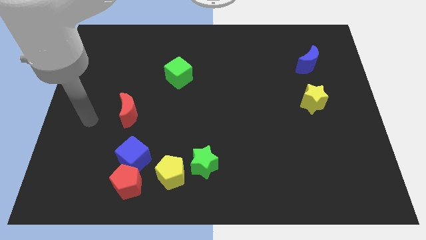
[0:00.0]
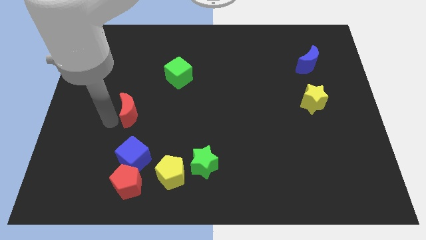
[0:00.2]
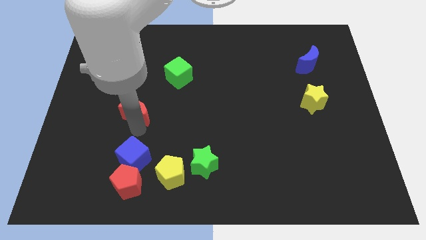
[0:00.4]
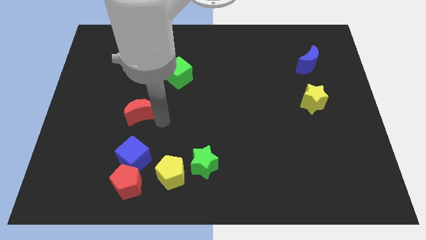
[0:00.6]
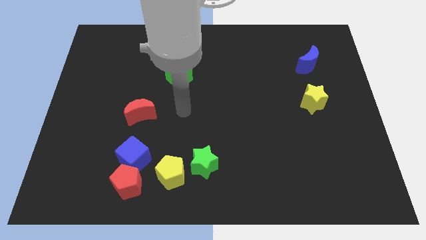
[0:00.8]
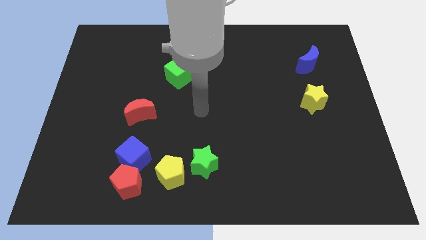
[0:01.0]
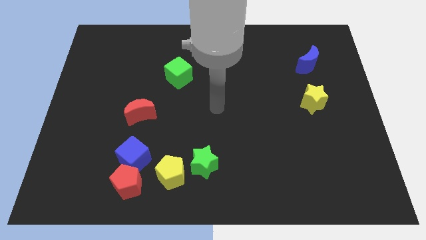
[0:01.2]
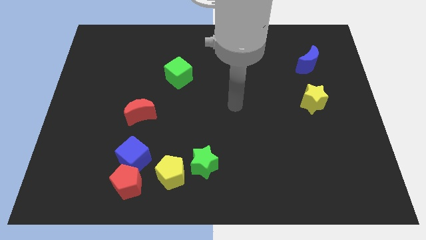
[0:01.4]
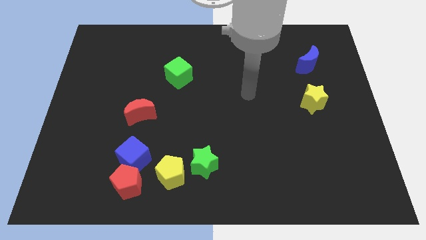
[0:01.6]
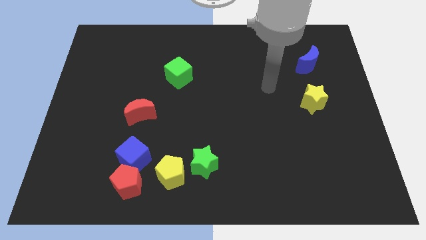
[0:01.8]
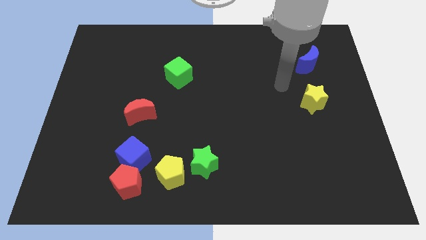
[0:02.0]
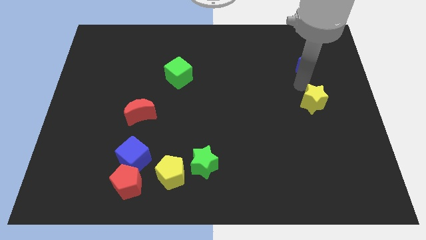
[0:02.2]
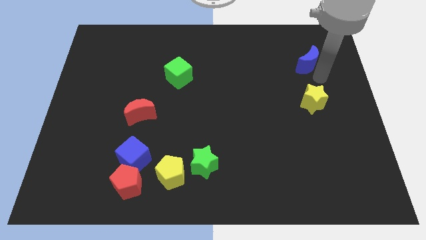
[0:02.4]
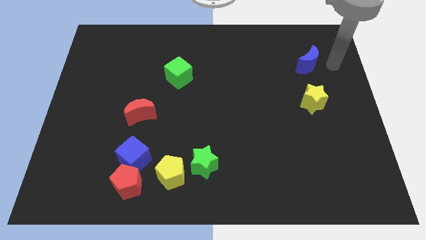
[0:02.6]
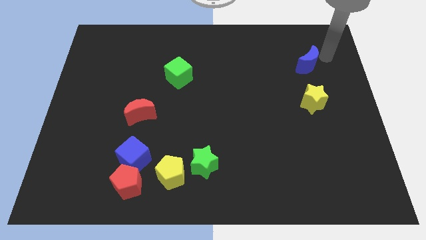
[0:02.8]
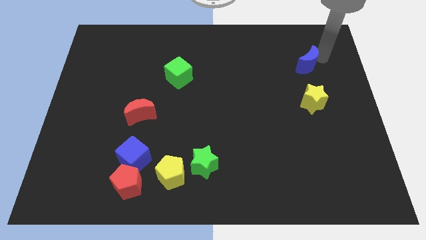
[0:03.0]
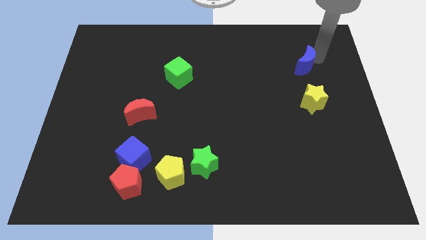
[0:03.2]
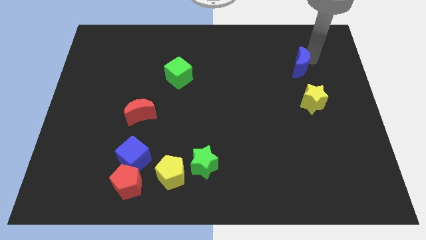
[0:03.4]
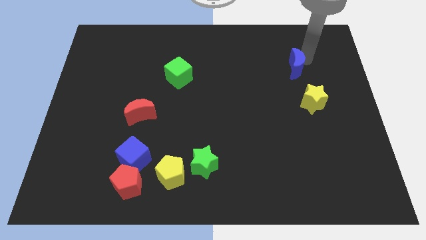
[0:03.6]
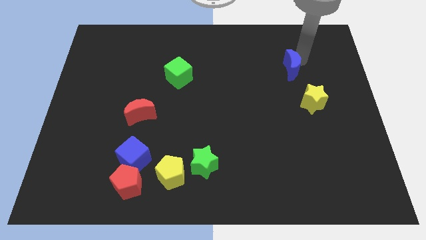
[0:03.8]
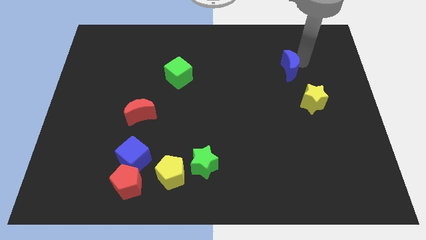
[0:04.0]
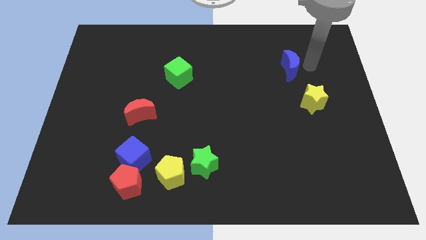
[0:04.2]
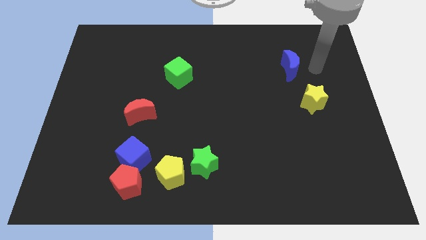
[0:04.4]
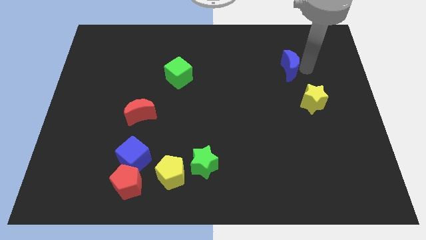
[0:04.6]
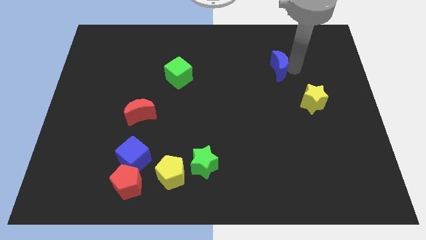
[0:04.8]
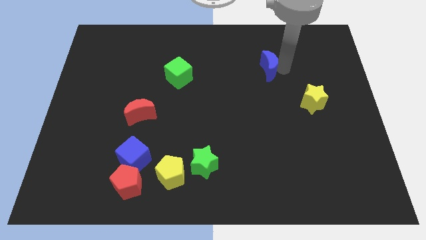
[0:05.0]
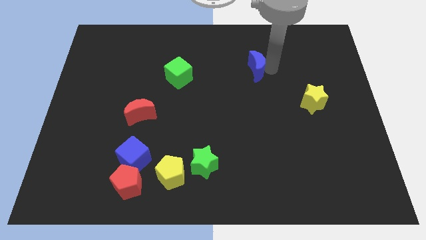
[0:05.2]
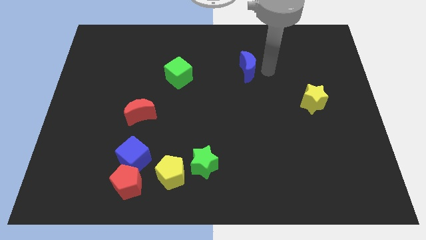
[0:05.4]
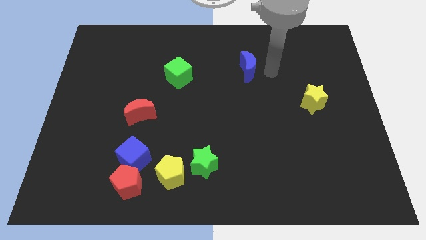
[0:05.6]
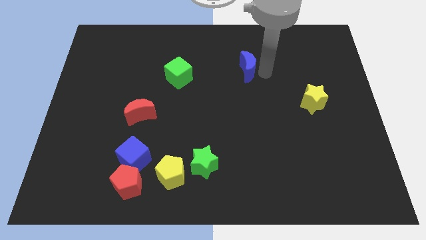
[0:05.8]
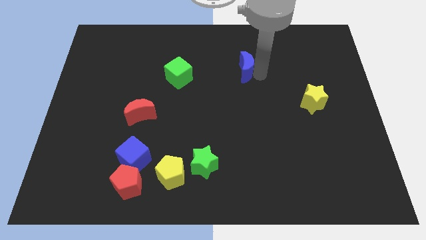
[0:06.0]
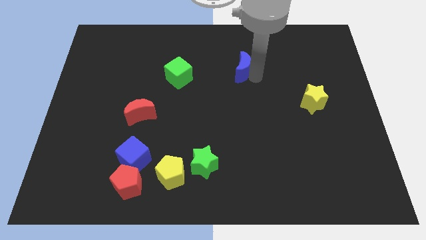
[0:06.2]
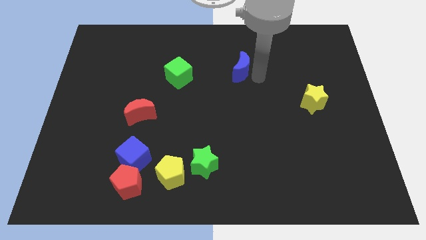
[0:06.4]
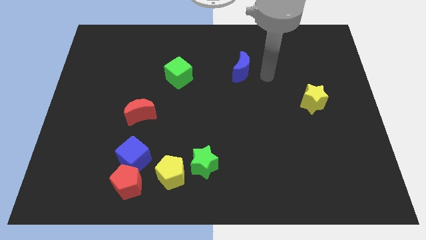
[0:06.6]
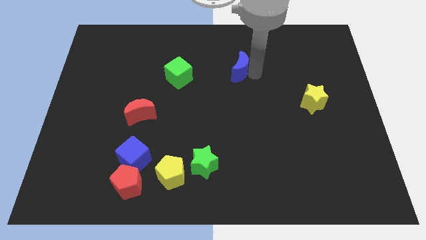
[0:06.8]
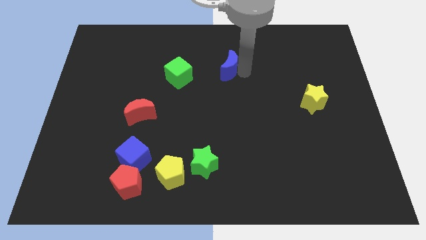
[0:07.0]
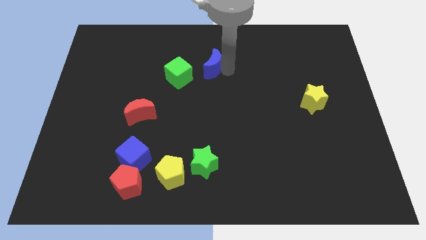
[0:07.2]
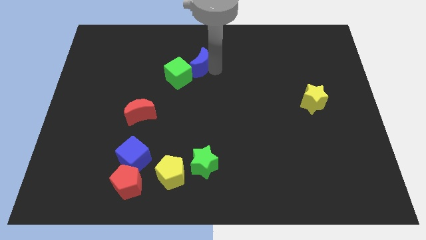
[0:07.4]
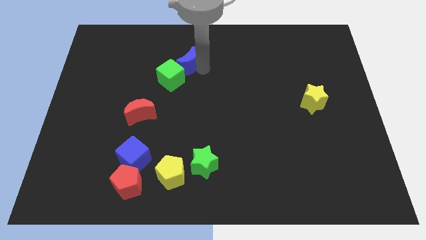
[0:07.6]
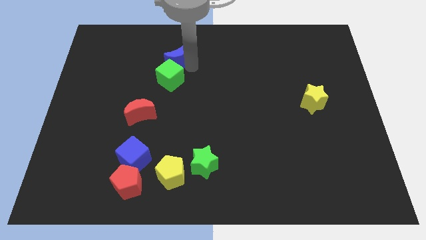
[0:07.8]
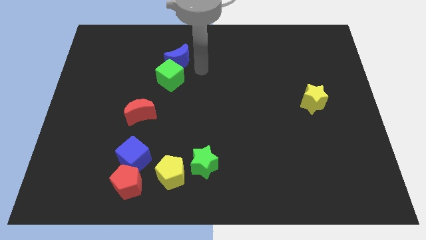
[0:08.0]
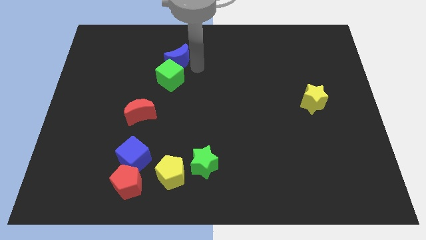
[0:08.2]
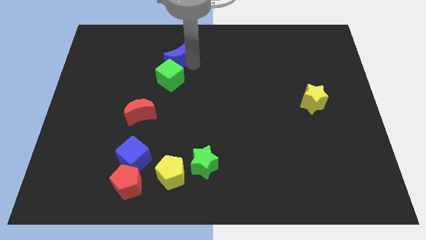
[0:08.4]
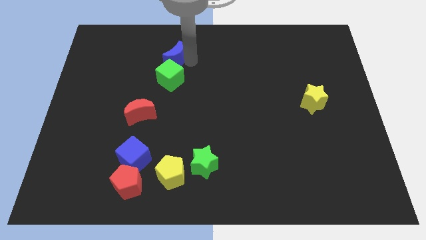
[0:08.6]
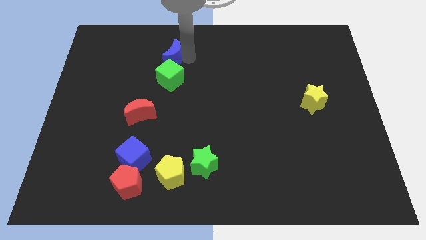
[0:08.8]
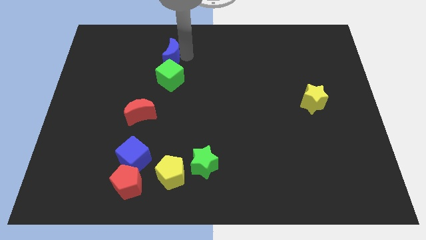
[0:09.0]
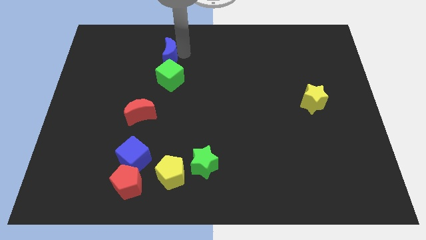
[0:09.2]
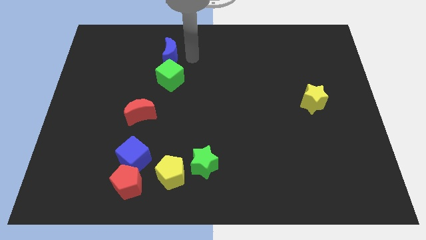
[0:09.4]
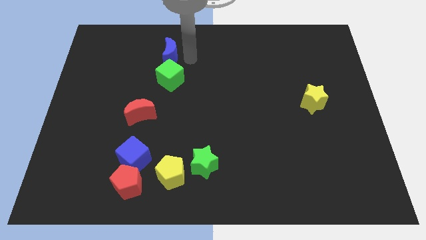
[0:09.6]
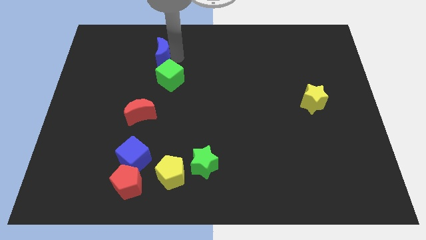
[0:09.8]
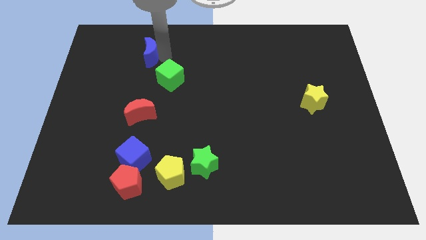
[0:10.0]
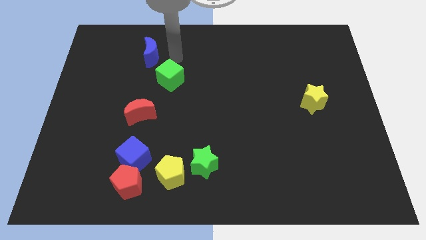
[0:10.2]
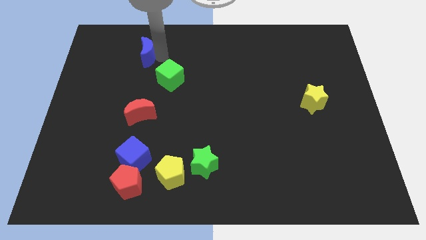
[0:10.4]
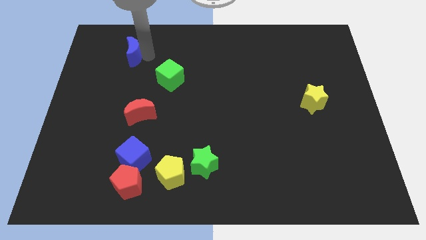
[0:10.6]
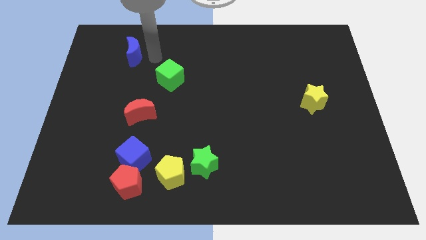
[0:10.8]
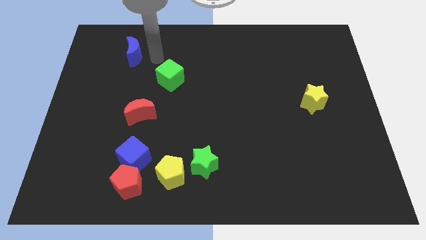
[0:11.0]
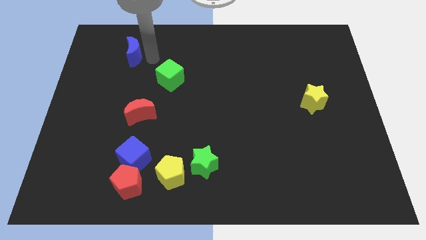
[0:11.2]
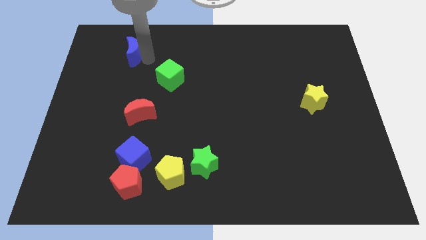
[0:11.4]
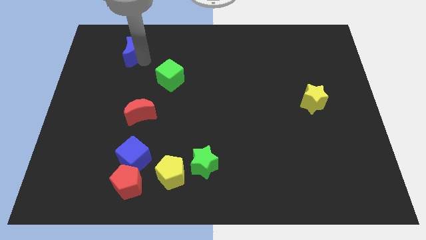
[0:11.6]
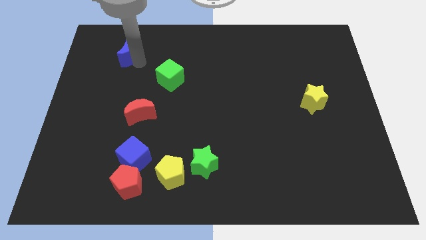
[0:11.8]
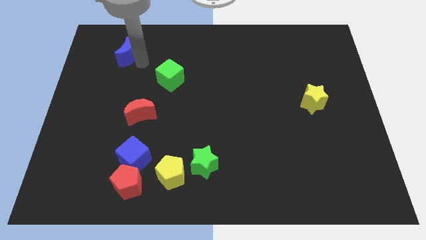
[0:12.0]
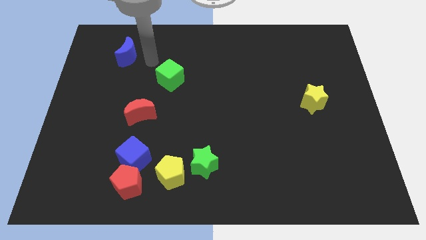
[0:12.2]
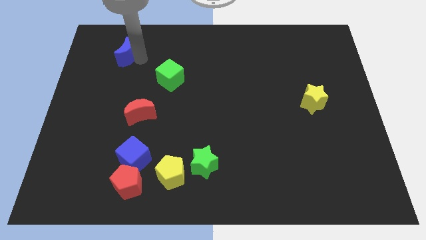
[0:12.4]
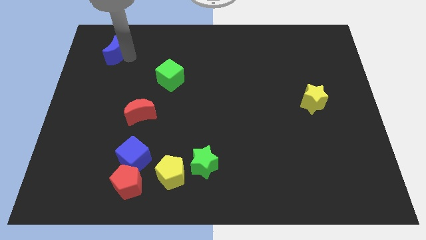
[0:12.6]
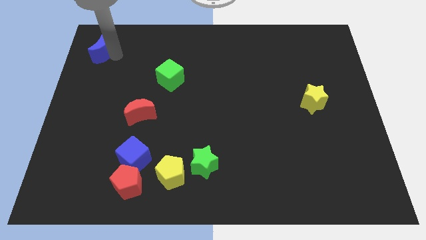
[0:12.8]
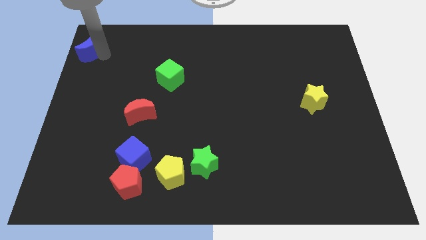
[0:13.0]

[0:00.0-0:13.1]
move the blue moon to the top left
